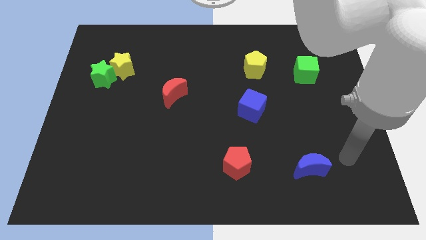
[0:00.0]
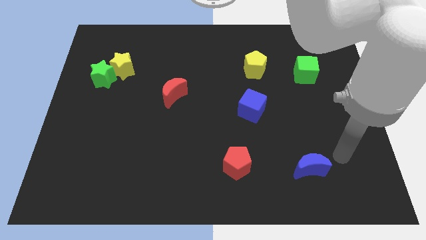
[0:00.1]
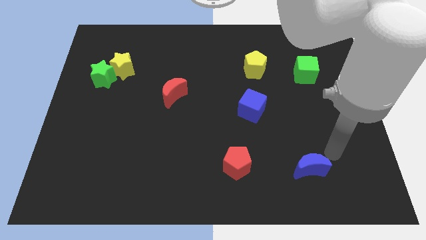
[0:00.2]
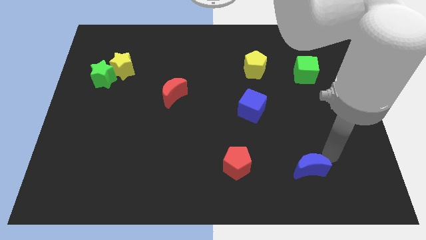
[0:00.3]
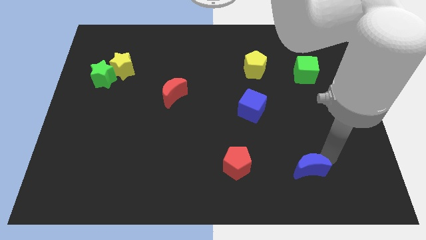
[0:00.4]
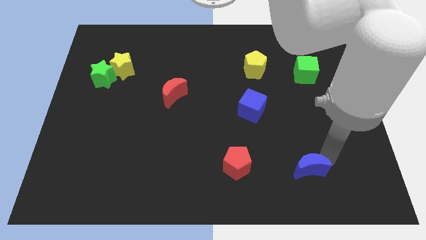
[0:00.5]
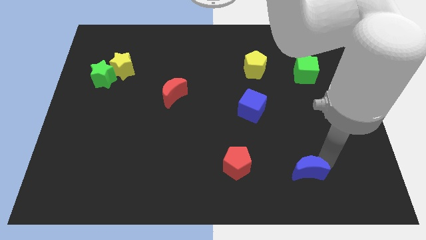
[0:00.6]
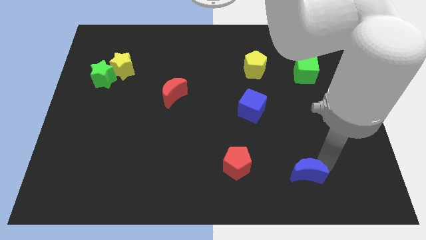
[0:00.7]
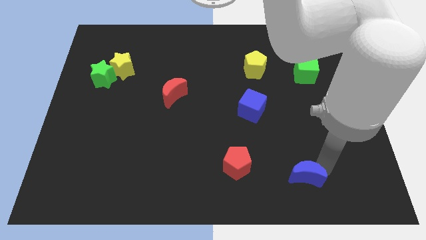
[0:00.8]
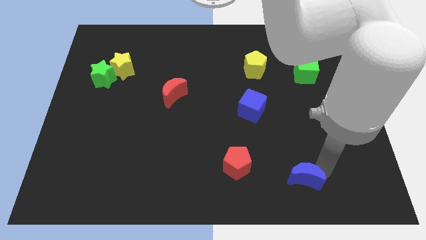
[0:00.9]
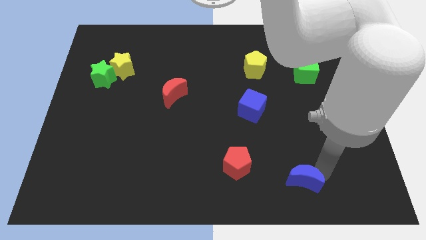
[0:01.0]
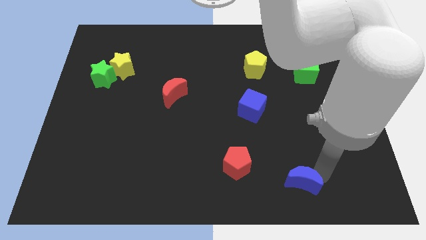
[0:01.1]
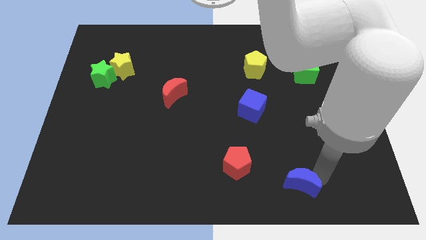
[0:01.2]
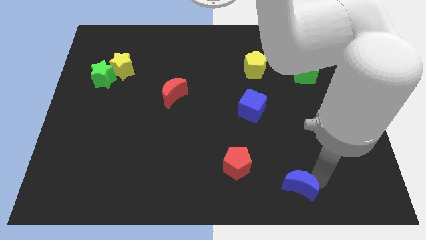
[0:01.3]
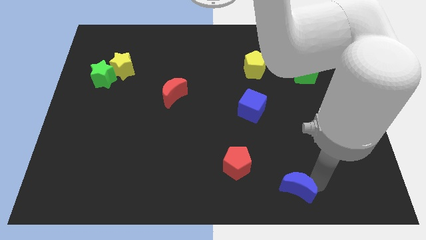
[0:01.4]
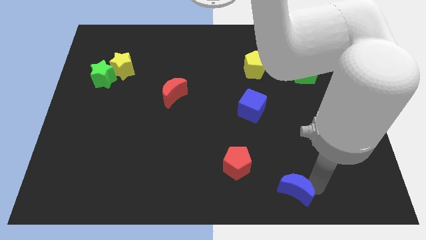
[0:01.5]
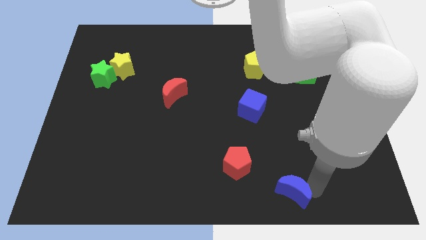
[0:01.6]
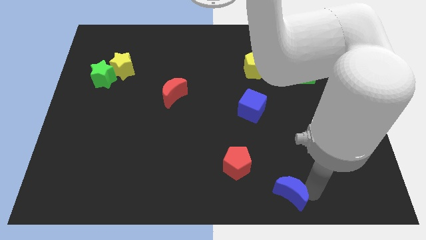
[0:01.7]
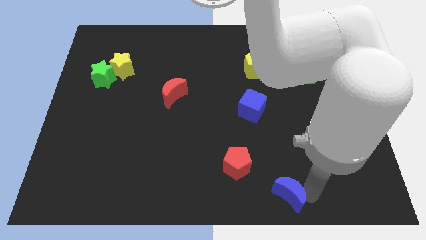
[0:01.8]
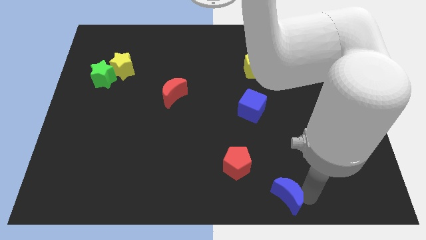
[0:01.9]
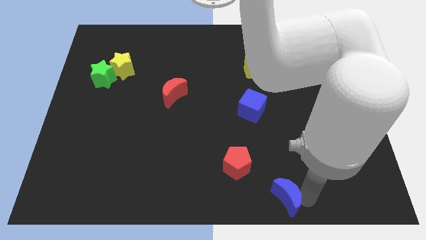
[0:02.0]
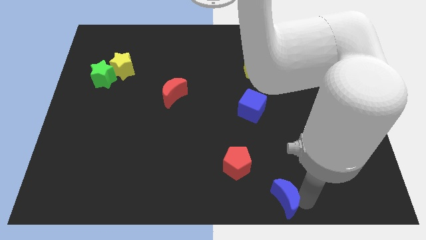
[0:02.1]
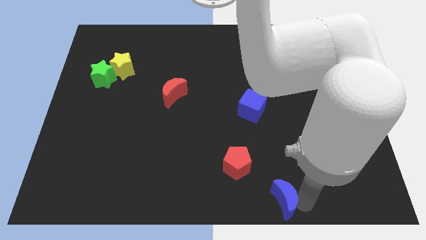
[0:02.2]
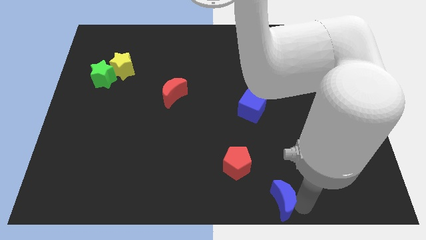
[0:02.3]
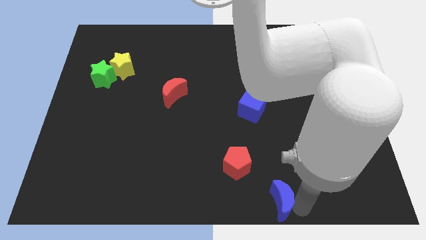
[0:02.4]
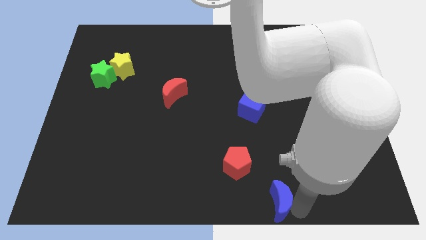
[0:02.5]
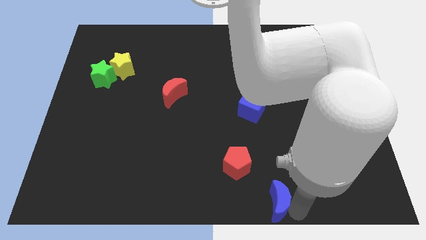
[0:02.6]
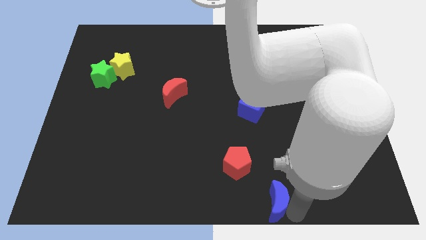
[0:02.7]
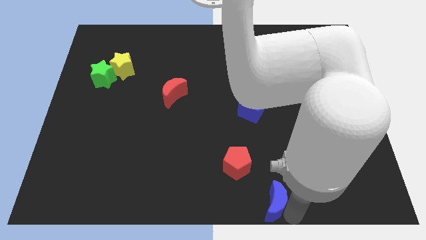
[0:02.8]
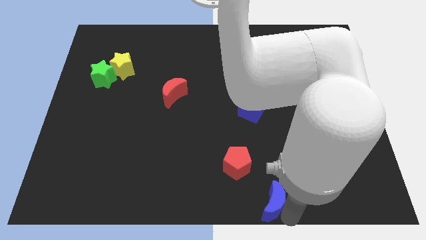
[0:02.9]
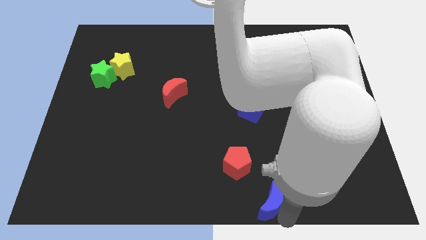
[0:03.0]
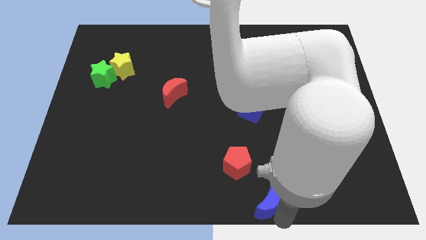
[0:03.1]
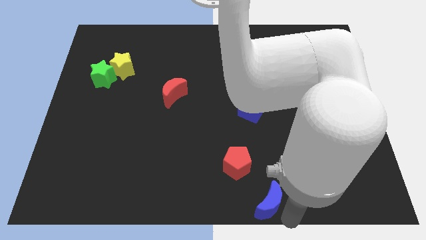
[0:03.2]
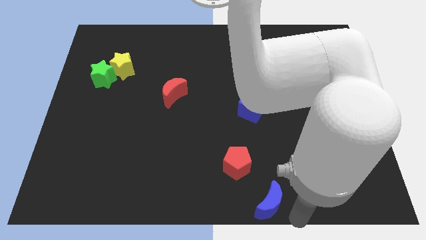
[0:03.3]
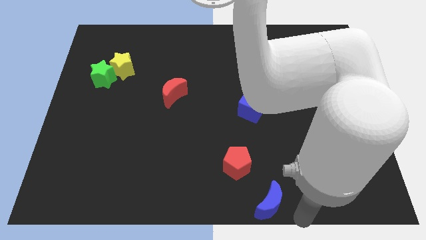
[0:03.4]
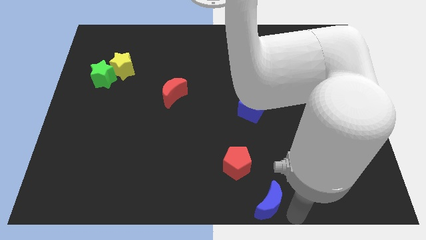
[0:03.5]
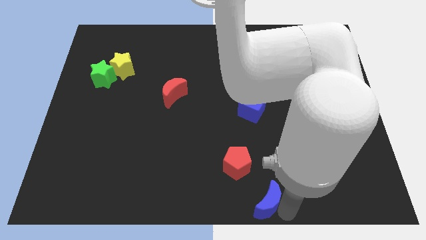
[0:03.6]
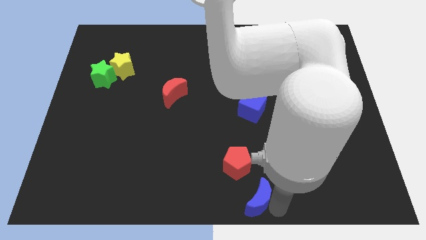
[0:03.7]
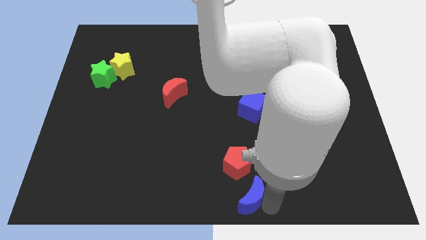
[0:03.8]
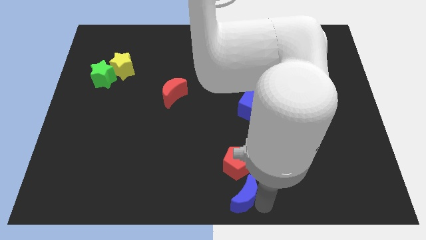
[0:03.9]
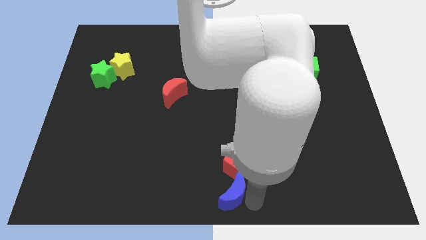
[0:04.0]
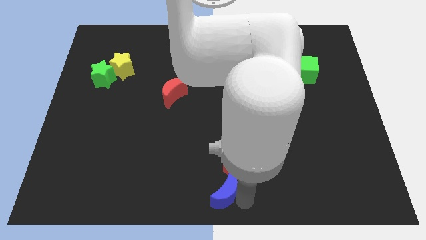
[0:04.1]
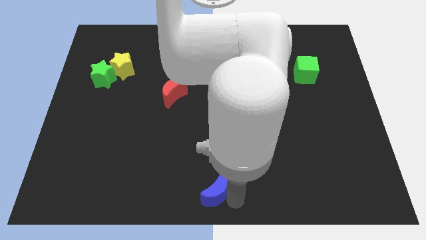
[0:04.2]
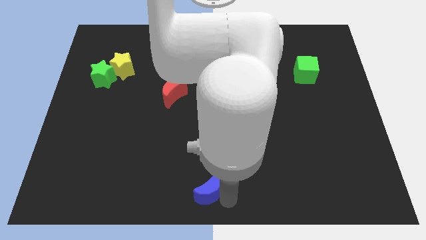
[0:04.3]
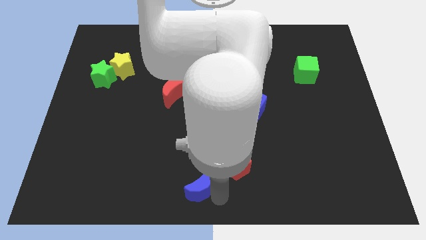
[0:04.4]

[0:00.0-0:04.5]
slide the blue moon to the left

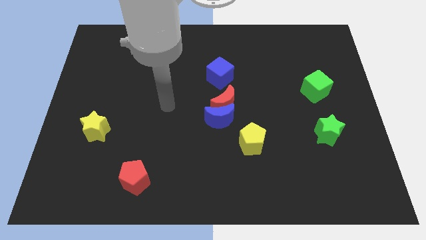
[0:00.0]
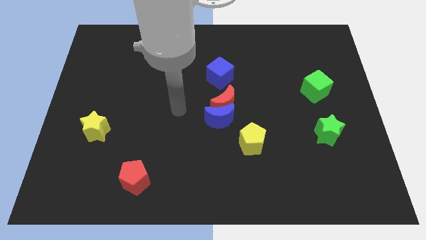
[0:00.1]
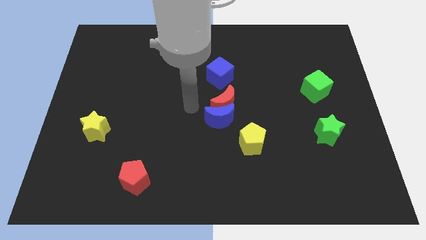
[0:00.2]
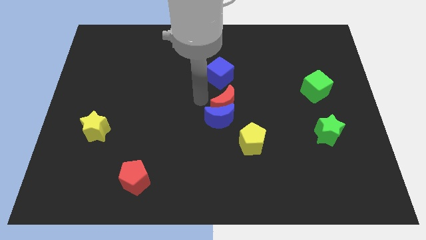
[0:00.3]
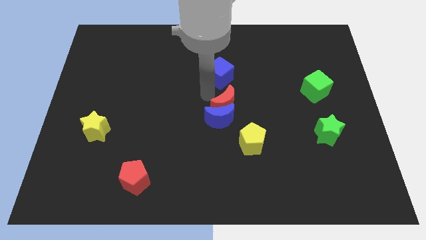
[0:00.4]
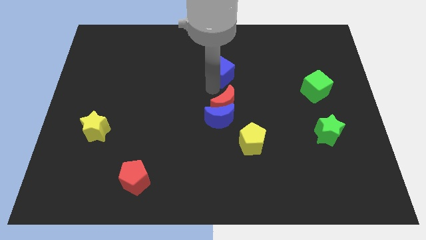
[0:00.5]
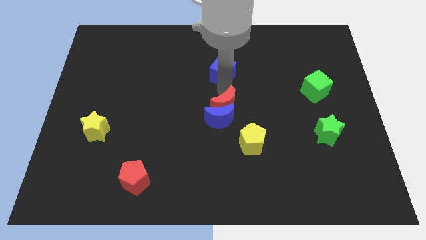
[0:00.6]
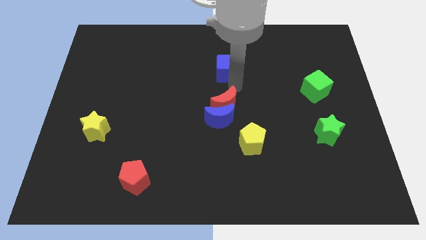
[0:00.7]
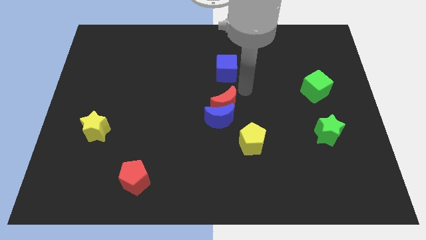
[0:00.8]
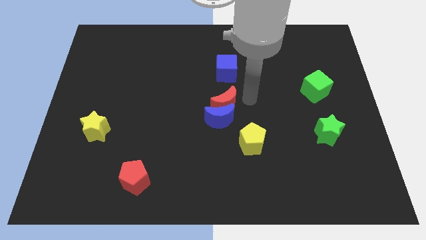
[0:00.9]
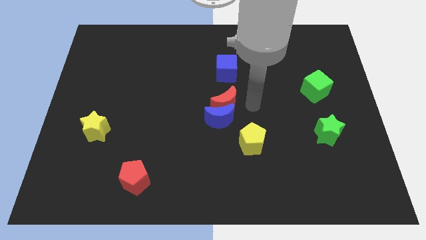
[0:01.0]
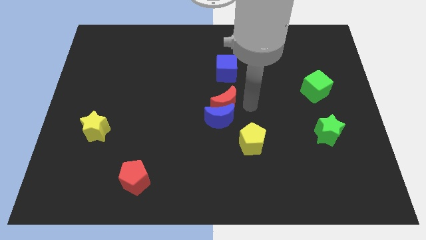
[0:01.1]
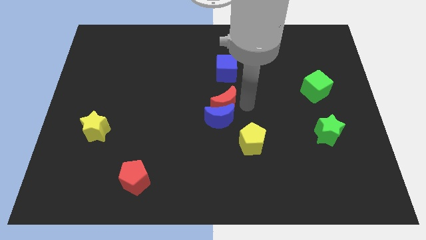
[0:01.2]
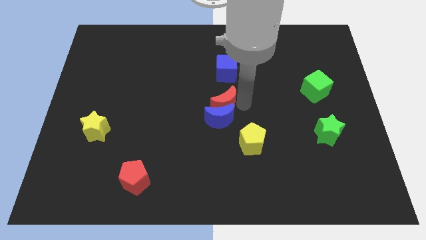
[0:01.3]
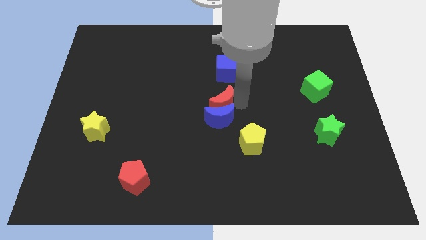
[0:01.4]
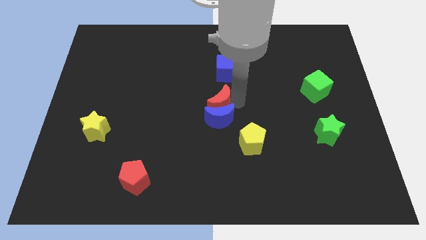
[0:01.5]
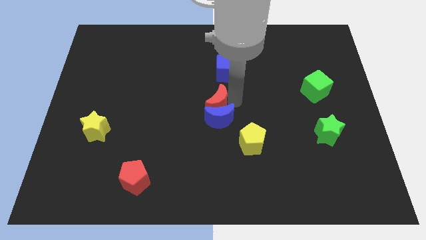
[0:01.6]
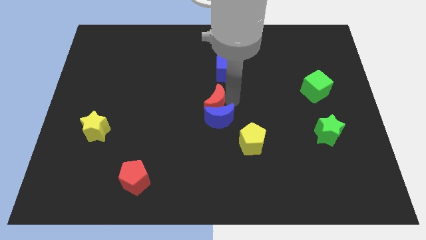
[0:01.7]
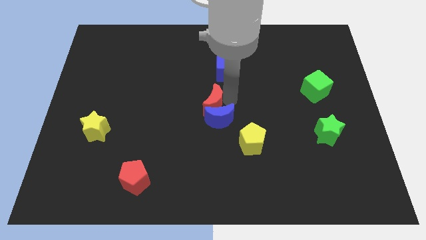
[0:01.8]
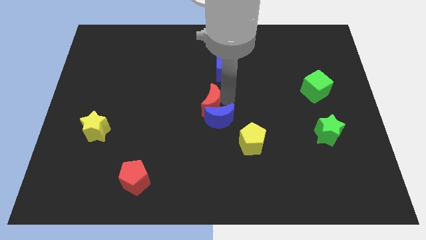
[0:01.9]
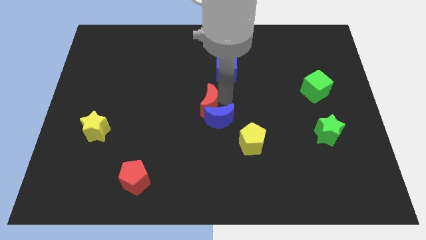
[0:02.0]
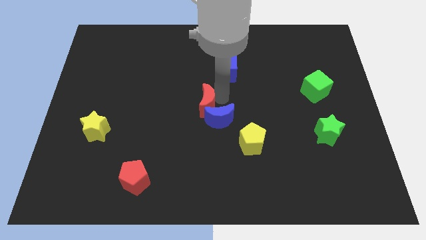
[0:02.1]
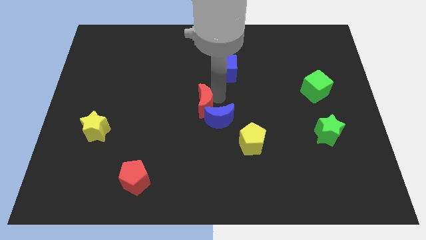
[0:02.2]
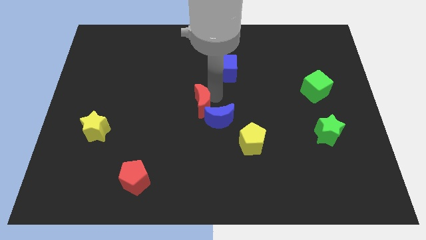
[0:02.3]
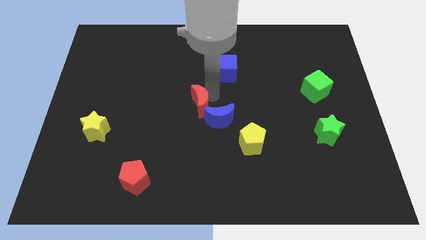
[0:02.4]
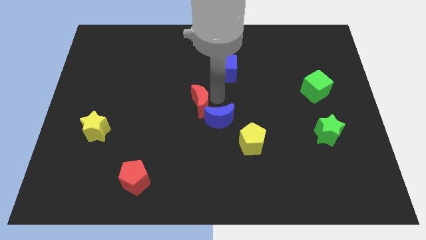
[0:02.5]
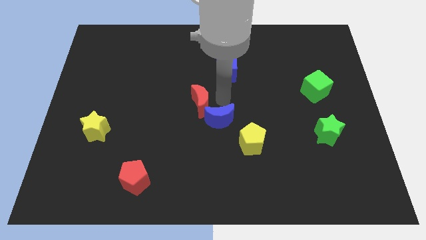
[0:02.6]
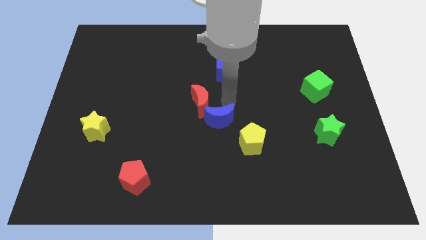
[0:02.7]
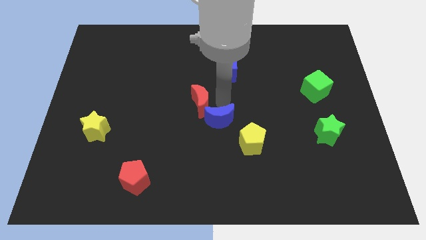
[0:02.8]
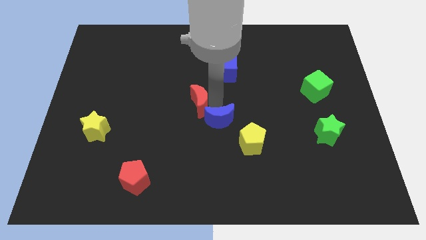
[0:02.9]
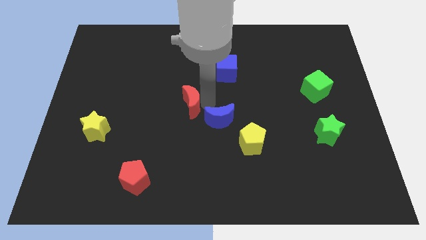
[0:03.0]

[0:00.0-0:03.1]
slightly push the red moon left
